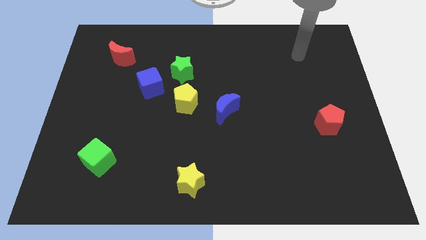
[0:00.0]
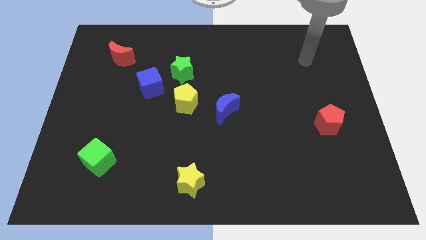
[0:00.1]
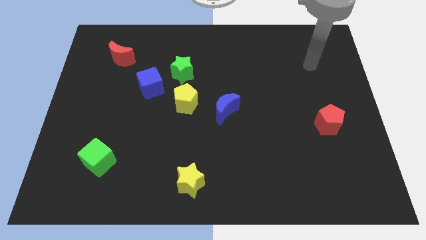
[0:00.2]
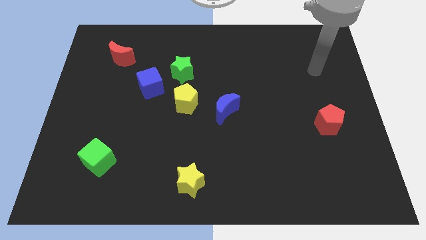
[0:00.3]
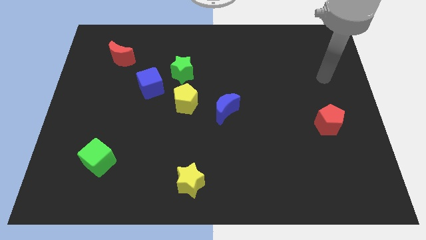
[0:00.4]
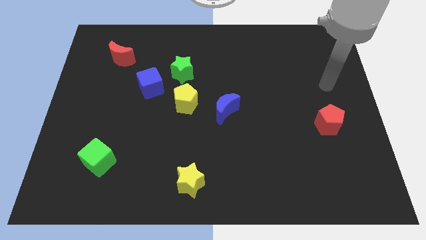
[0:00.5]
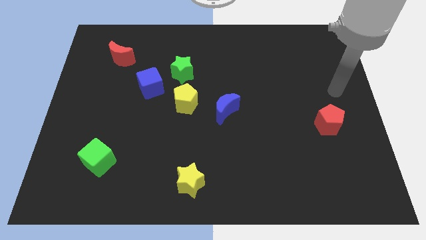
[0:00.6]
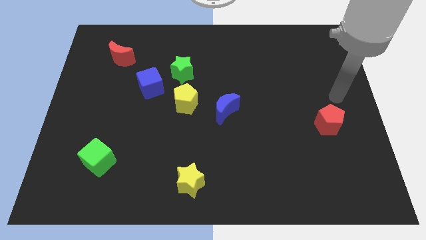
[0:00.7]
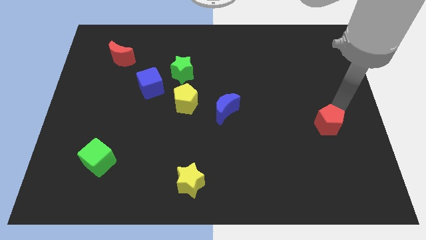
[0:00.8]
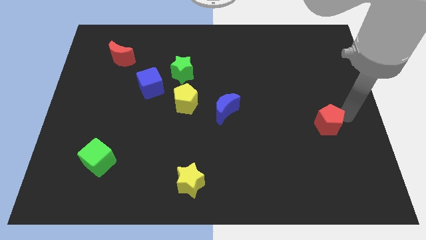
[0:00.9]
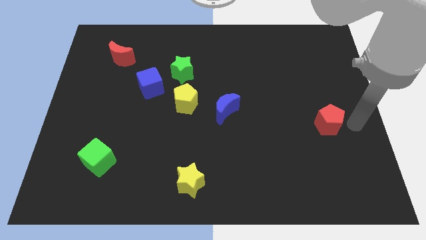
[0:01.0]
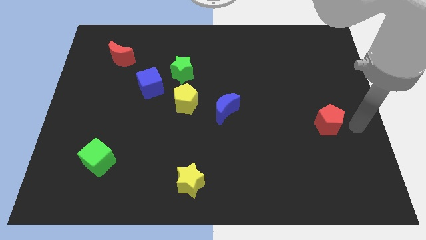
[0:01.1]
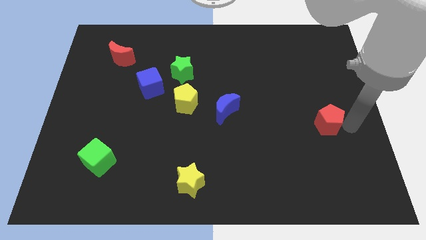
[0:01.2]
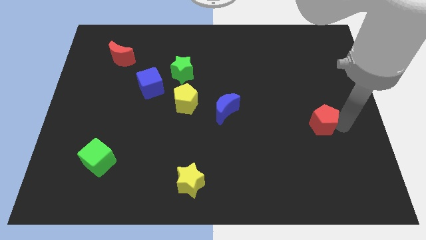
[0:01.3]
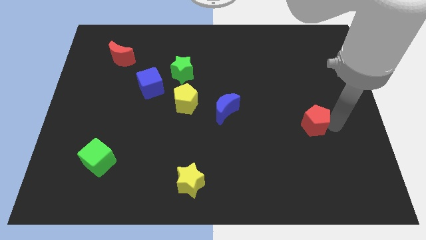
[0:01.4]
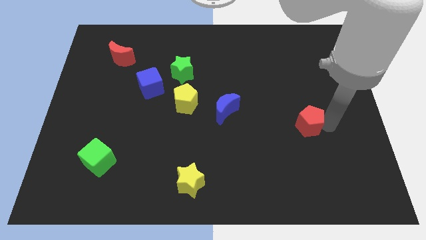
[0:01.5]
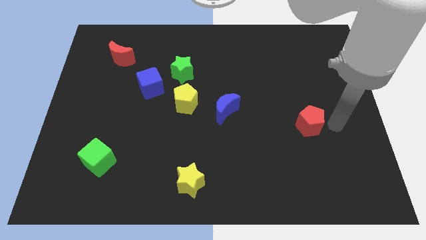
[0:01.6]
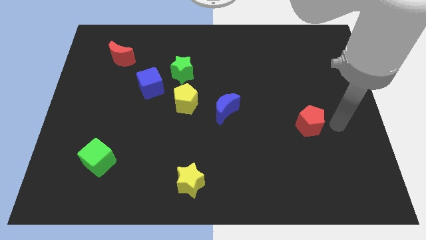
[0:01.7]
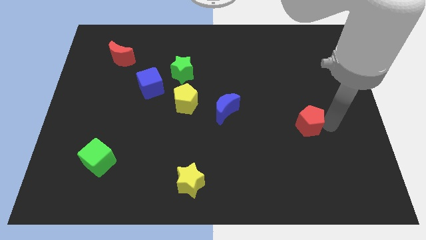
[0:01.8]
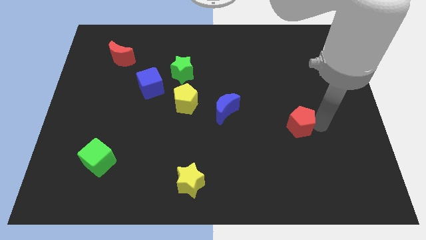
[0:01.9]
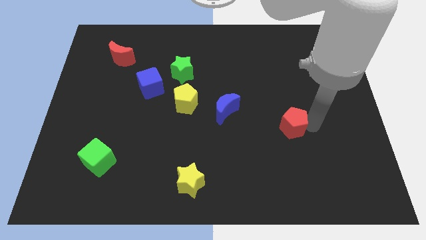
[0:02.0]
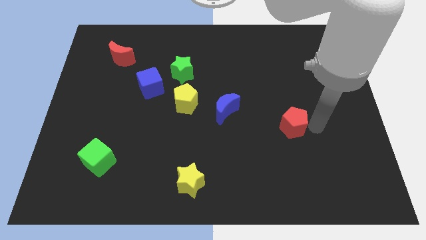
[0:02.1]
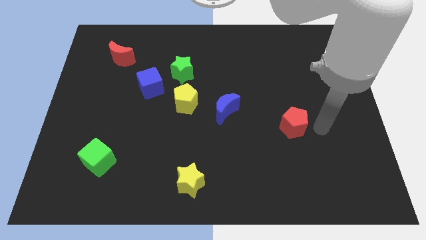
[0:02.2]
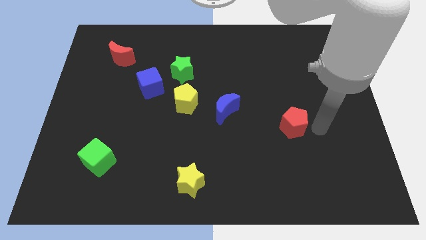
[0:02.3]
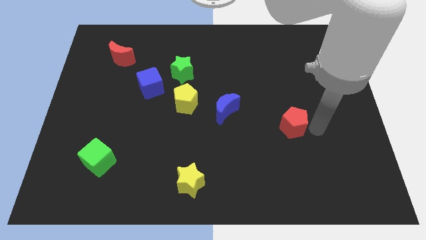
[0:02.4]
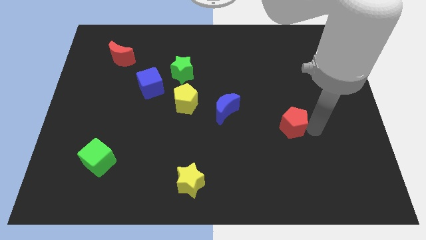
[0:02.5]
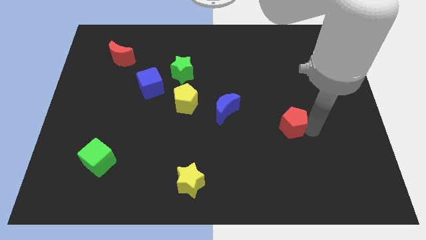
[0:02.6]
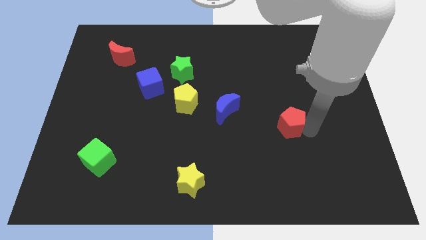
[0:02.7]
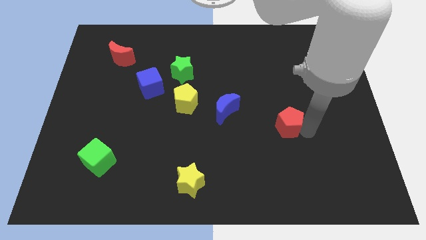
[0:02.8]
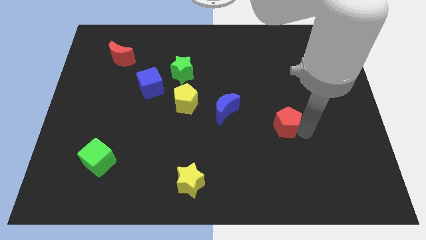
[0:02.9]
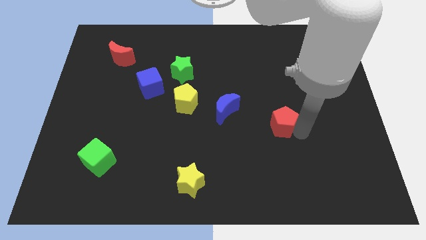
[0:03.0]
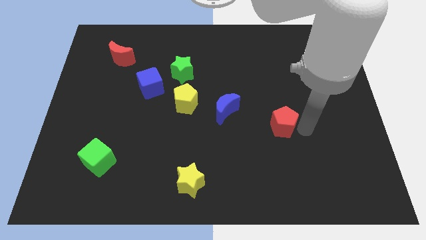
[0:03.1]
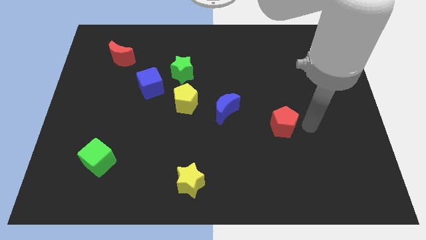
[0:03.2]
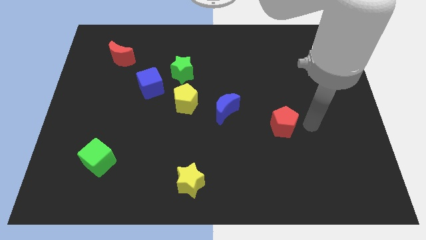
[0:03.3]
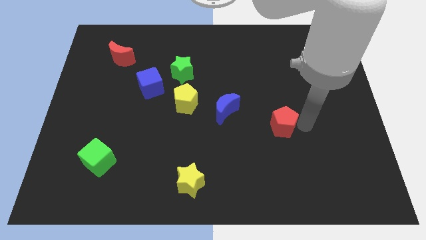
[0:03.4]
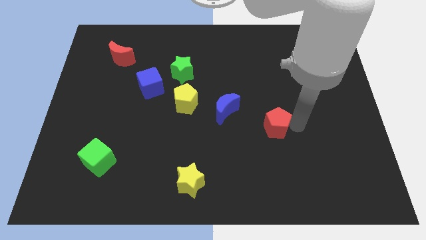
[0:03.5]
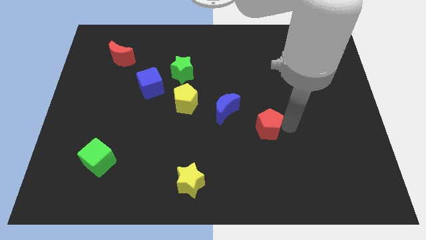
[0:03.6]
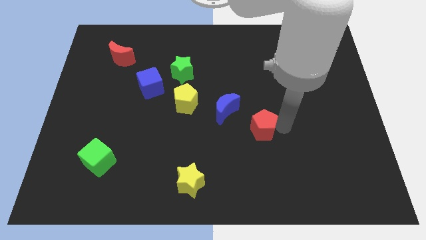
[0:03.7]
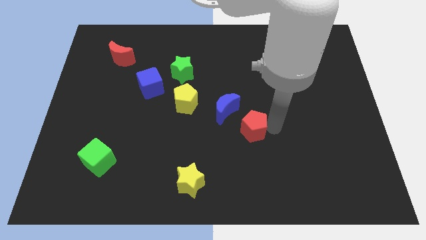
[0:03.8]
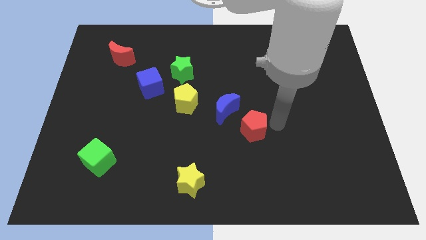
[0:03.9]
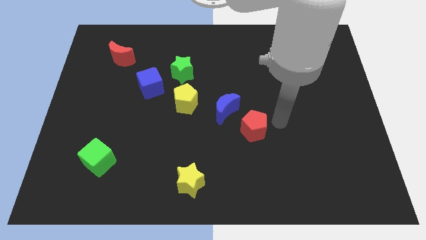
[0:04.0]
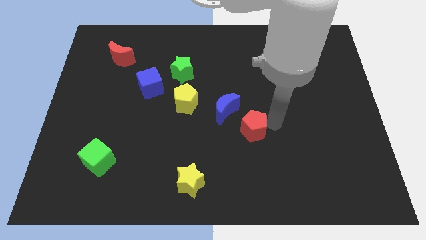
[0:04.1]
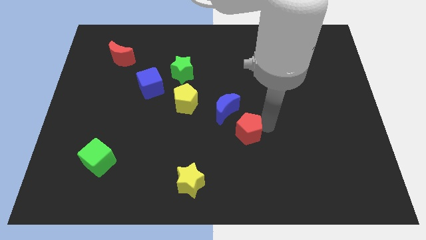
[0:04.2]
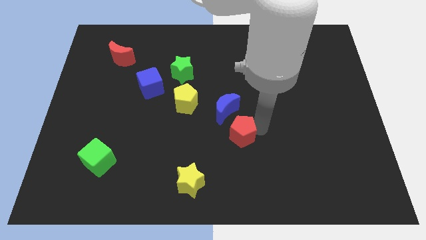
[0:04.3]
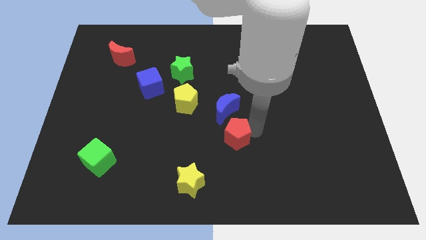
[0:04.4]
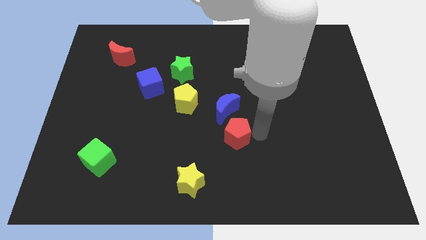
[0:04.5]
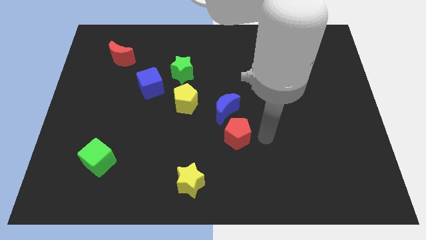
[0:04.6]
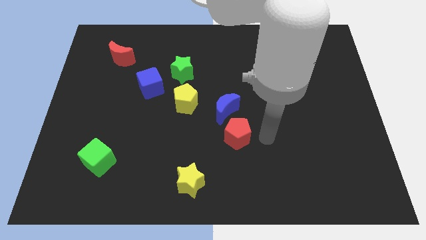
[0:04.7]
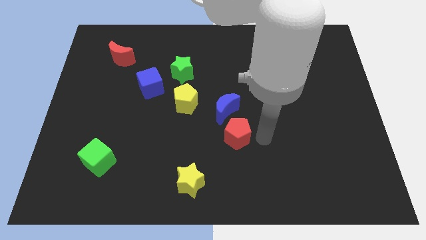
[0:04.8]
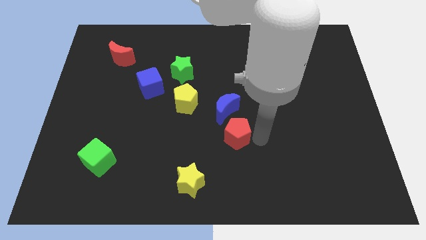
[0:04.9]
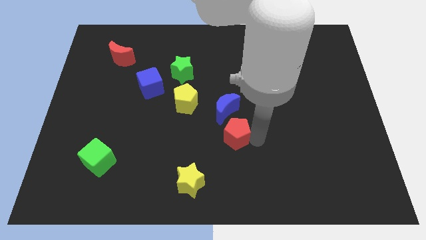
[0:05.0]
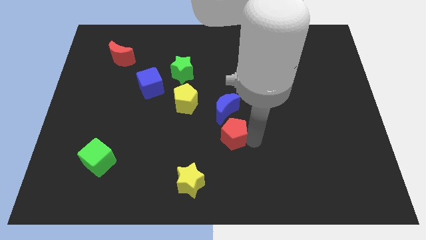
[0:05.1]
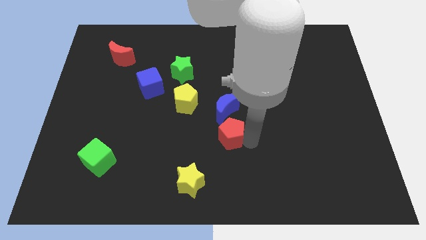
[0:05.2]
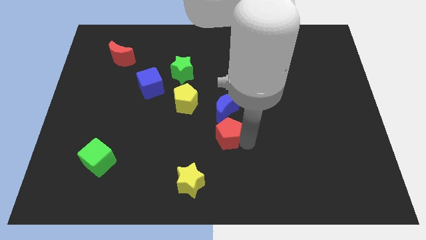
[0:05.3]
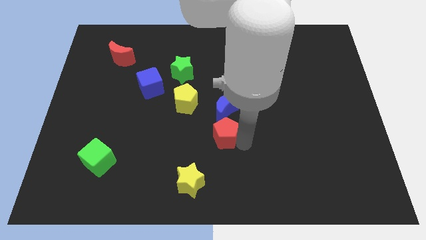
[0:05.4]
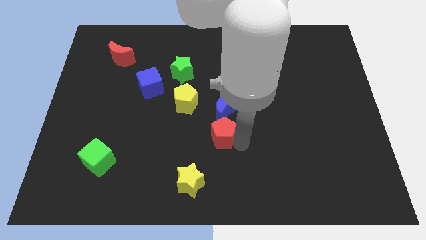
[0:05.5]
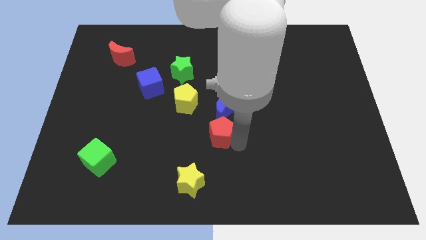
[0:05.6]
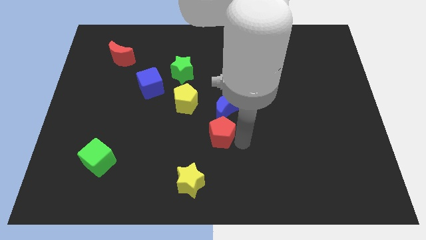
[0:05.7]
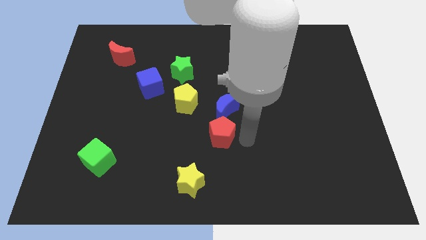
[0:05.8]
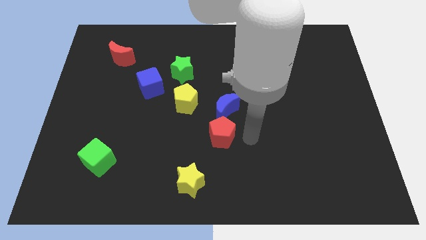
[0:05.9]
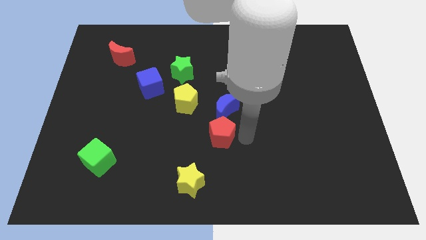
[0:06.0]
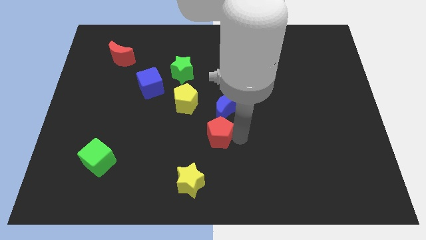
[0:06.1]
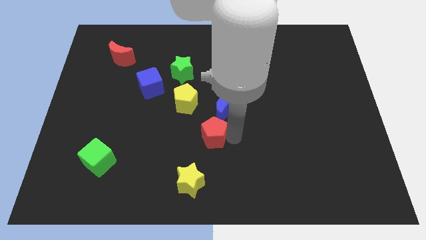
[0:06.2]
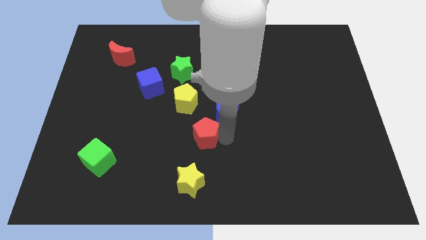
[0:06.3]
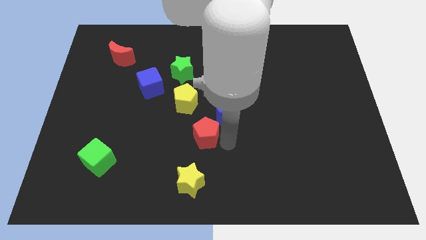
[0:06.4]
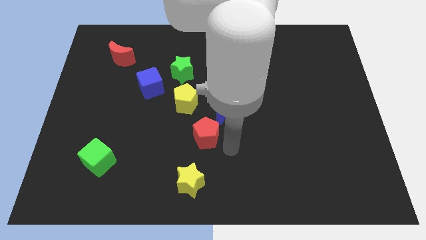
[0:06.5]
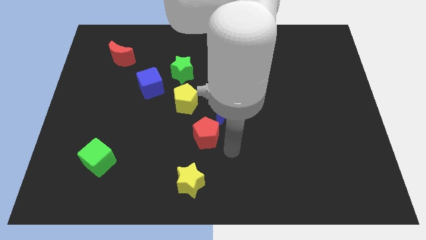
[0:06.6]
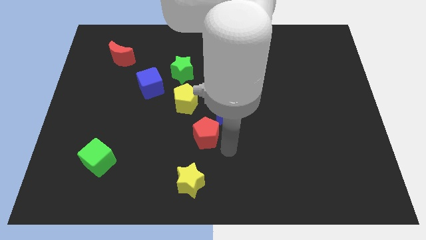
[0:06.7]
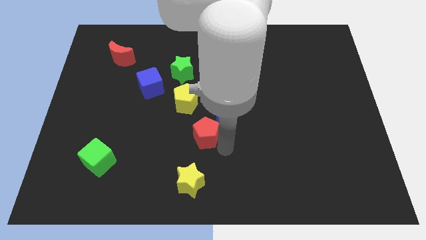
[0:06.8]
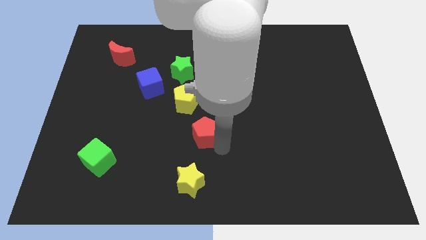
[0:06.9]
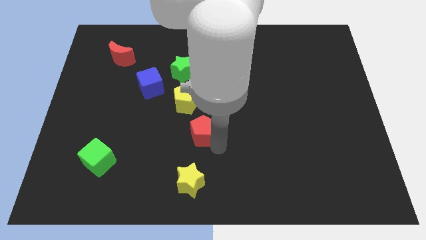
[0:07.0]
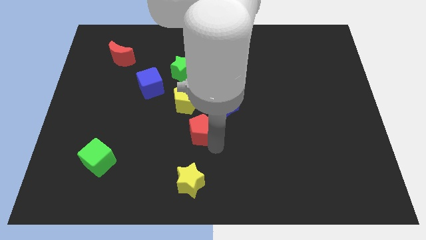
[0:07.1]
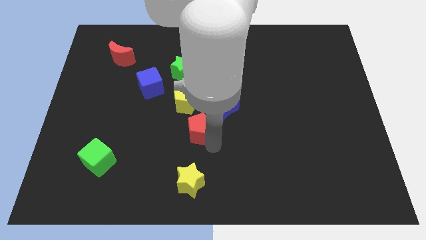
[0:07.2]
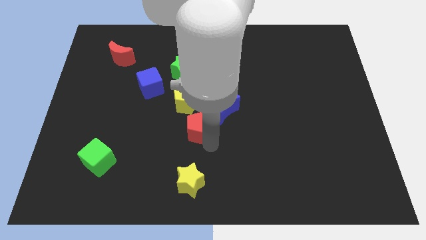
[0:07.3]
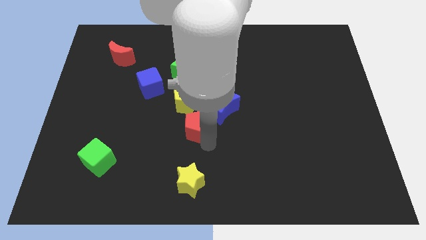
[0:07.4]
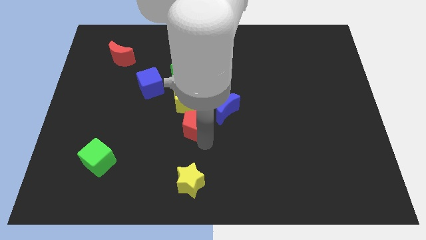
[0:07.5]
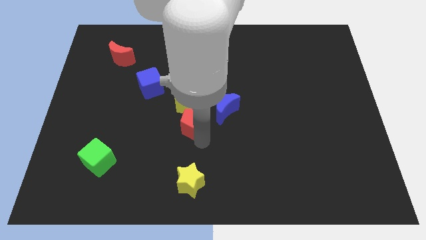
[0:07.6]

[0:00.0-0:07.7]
push the red pentagon to the left of the blue moon
